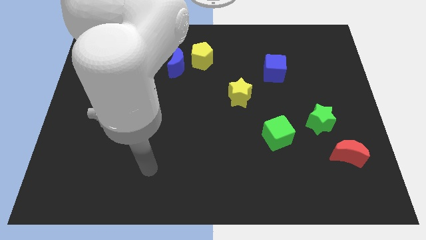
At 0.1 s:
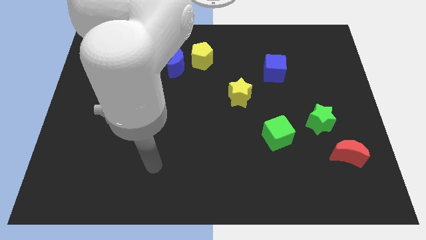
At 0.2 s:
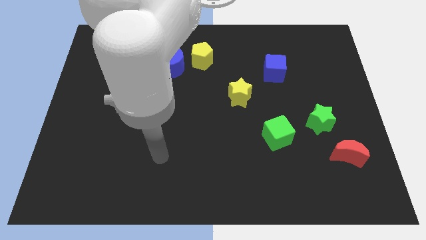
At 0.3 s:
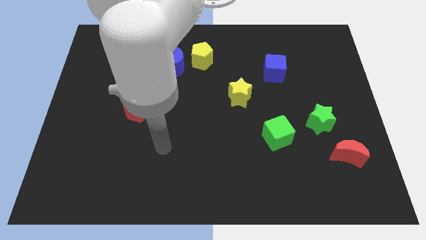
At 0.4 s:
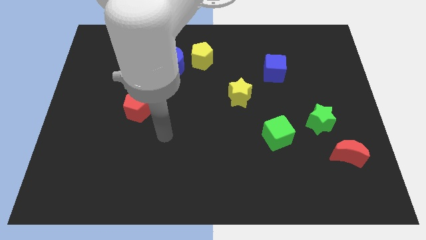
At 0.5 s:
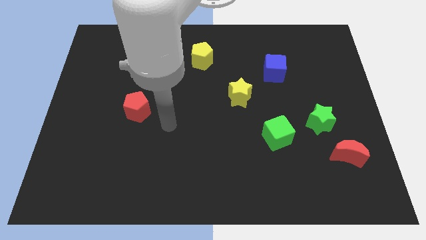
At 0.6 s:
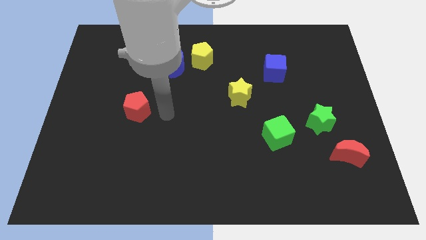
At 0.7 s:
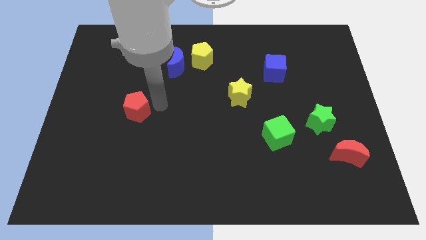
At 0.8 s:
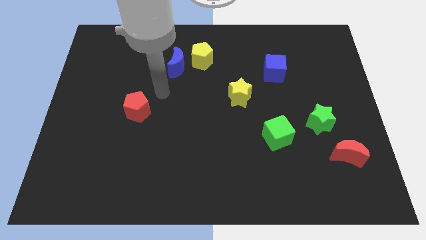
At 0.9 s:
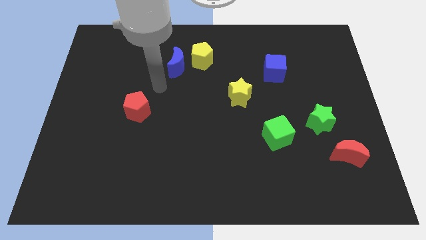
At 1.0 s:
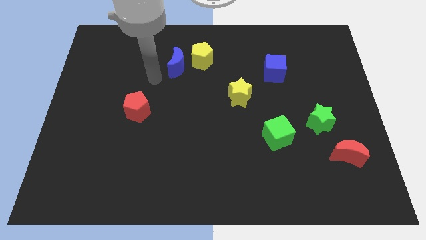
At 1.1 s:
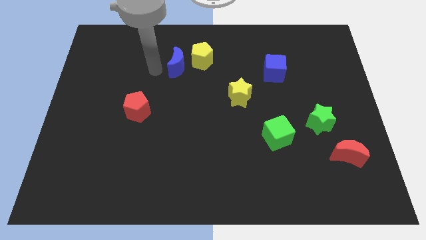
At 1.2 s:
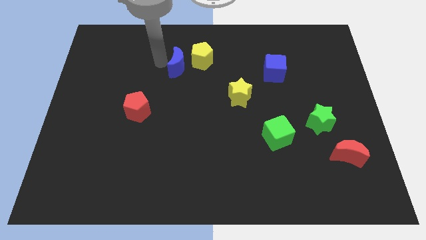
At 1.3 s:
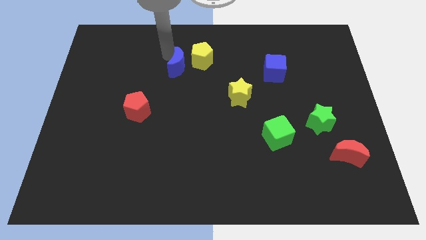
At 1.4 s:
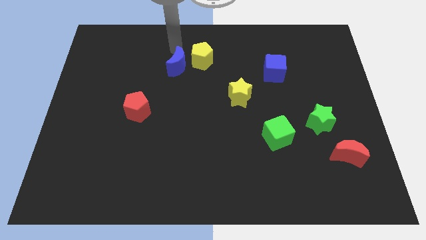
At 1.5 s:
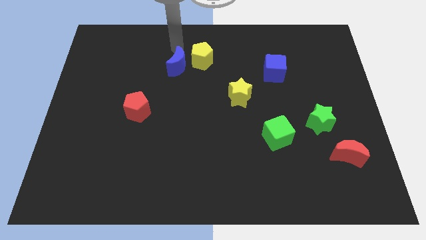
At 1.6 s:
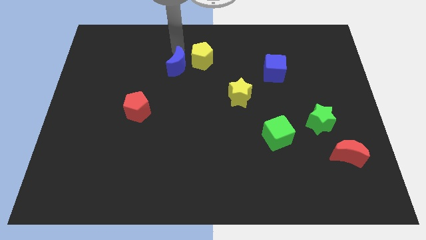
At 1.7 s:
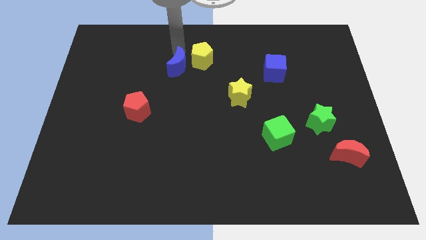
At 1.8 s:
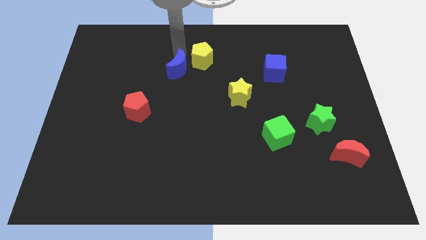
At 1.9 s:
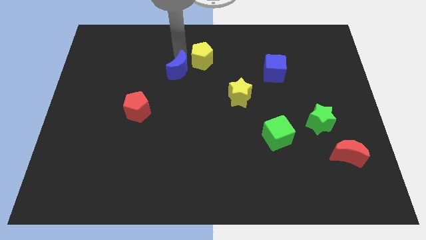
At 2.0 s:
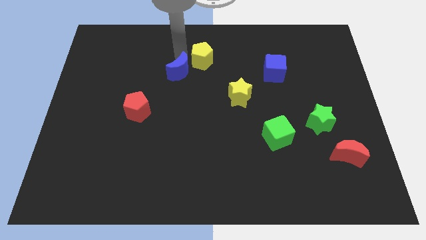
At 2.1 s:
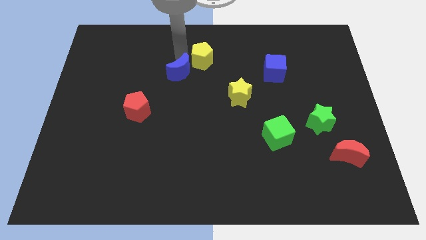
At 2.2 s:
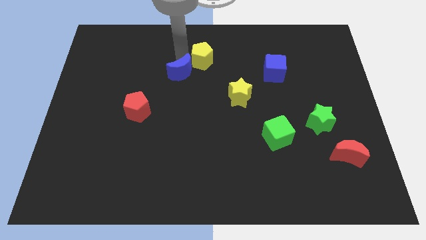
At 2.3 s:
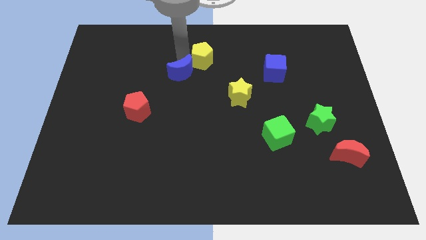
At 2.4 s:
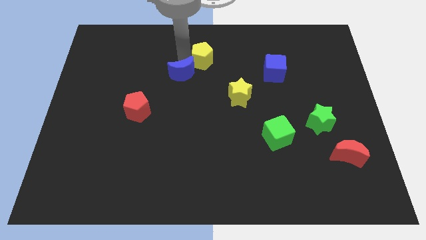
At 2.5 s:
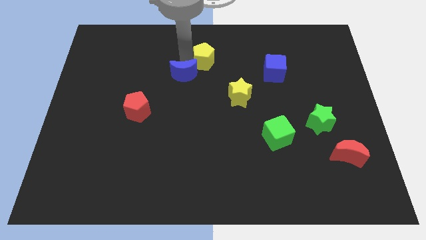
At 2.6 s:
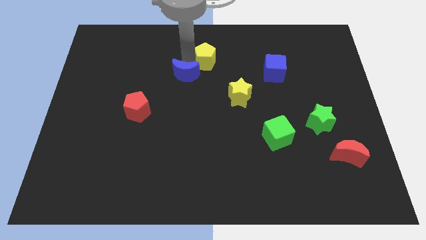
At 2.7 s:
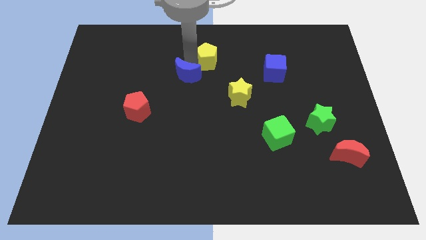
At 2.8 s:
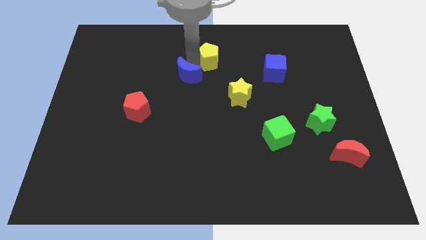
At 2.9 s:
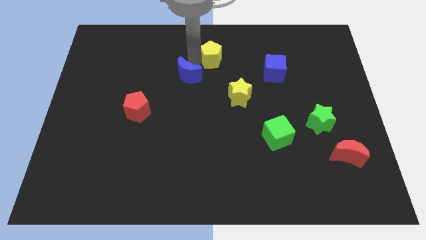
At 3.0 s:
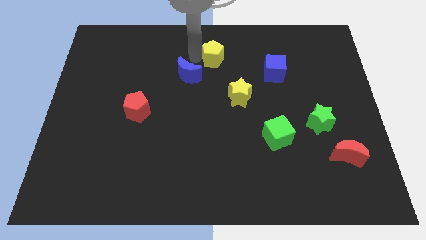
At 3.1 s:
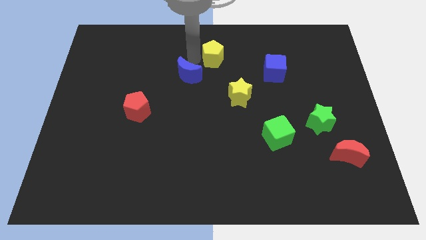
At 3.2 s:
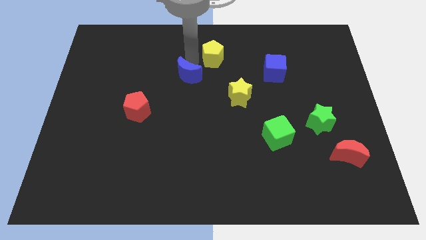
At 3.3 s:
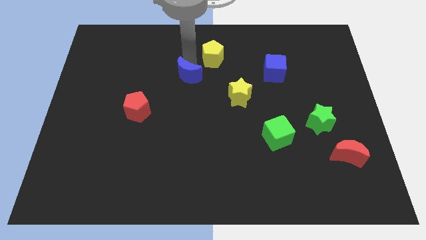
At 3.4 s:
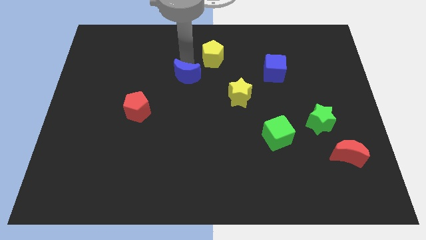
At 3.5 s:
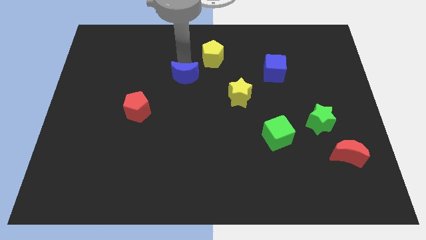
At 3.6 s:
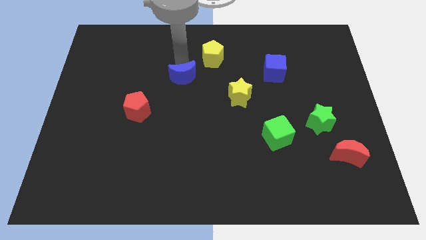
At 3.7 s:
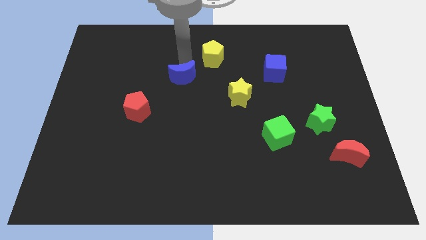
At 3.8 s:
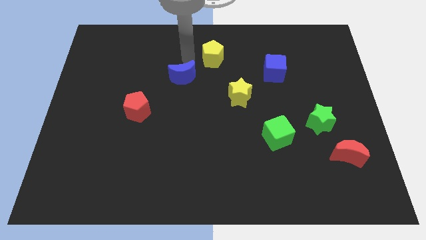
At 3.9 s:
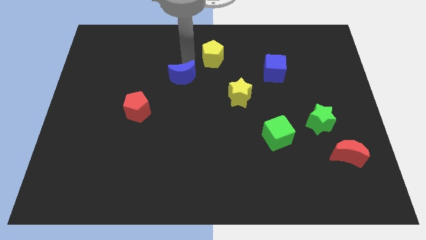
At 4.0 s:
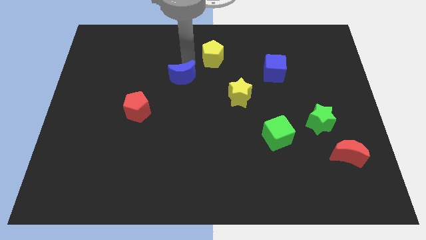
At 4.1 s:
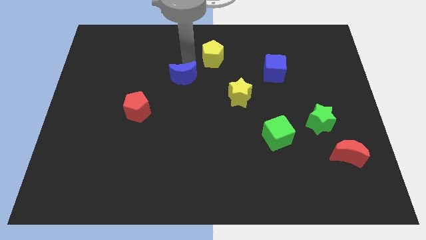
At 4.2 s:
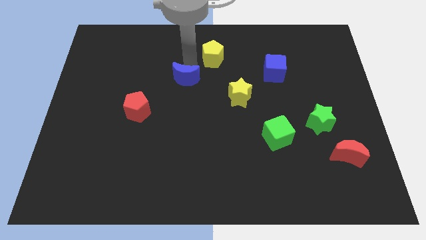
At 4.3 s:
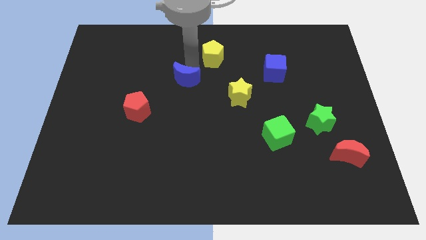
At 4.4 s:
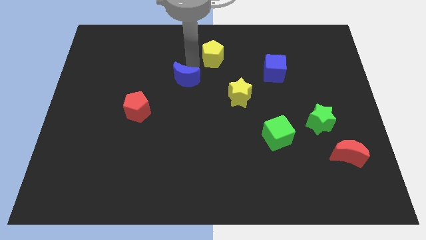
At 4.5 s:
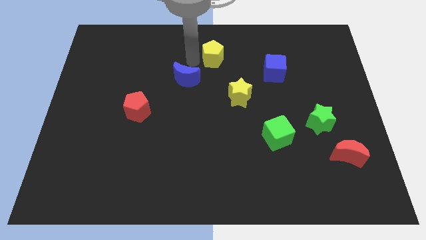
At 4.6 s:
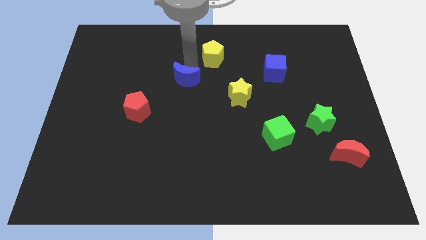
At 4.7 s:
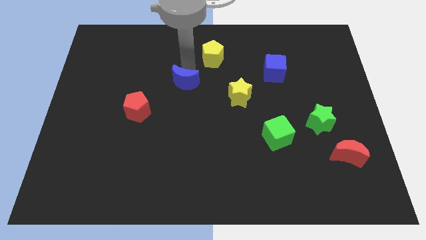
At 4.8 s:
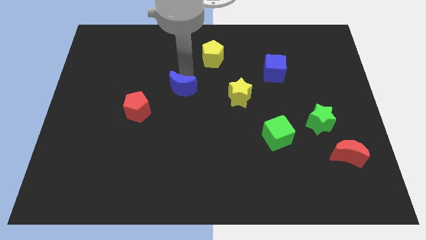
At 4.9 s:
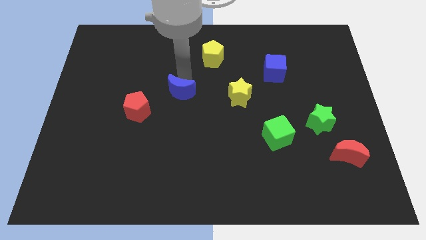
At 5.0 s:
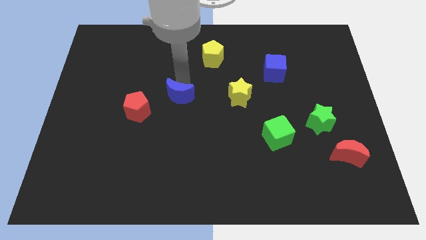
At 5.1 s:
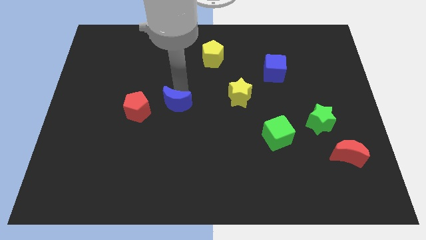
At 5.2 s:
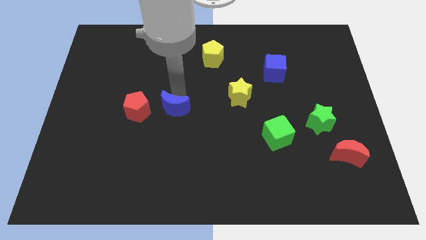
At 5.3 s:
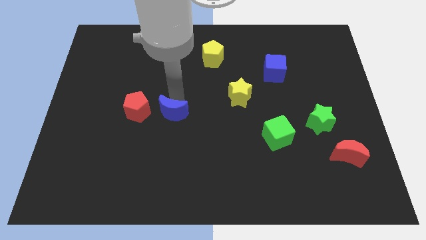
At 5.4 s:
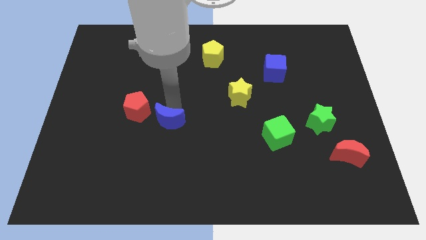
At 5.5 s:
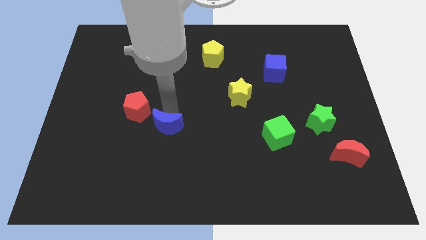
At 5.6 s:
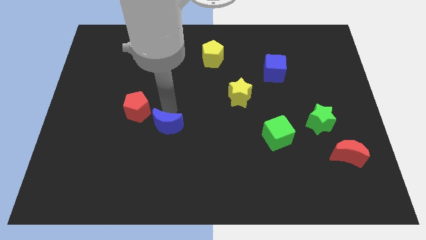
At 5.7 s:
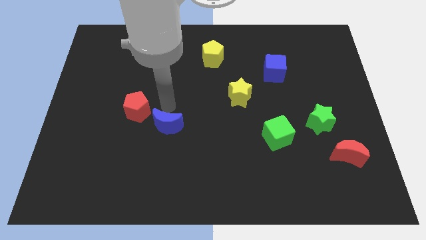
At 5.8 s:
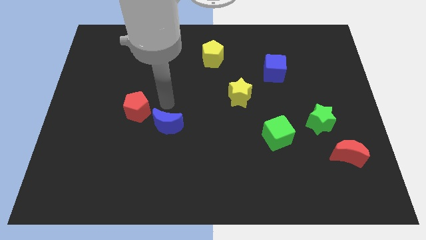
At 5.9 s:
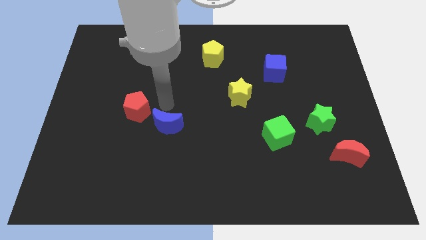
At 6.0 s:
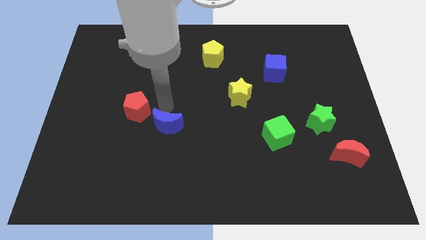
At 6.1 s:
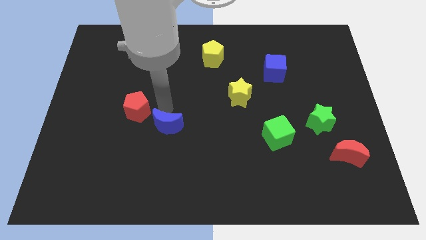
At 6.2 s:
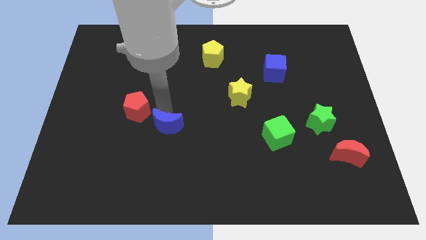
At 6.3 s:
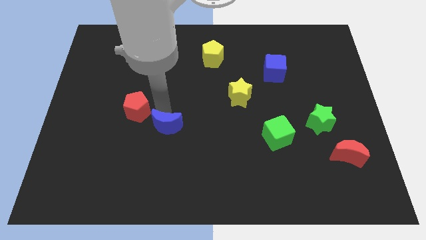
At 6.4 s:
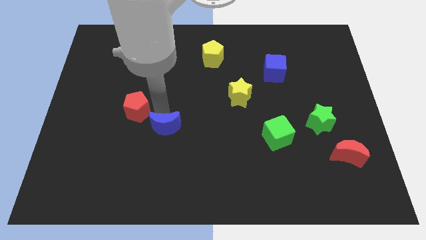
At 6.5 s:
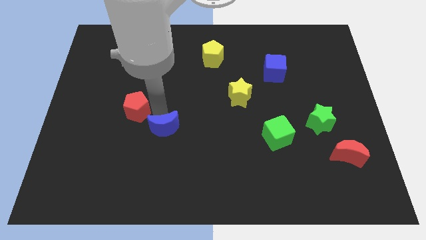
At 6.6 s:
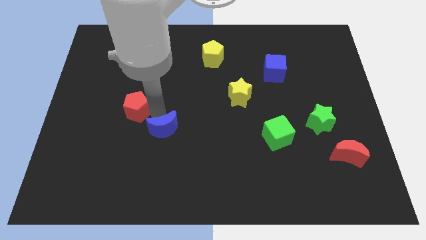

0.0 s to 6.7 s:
move the blue moon down

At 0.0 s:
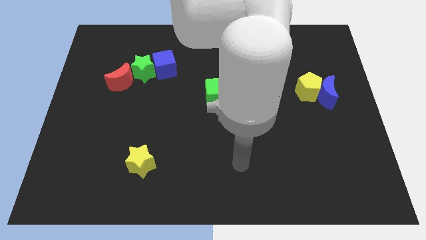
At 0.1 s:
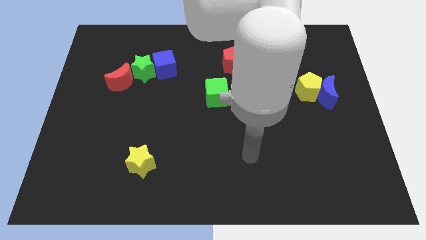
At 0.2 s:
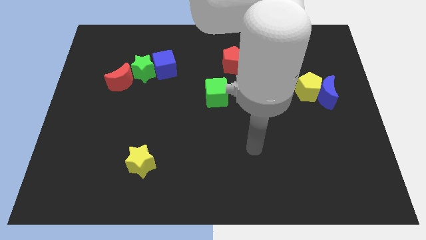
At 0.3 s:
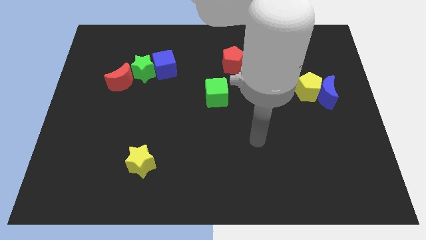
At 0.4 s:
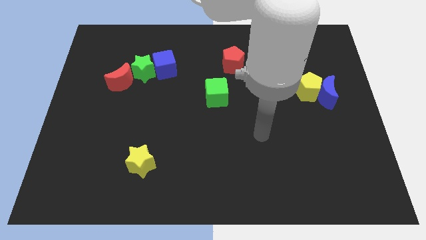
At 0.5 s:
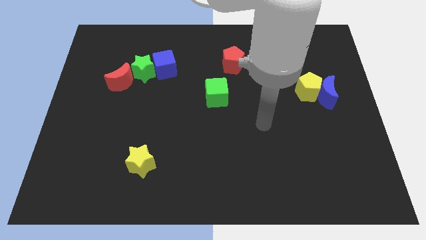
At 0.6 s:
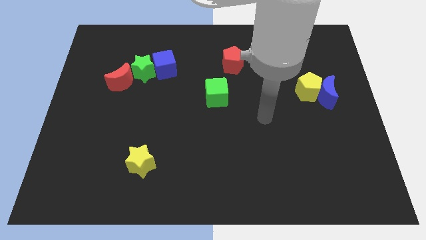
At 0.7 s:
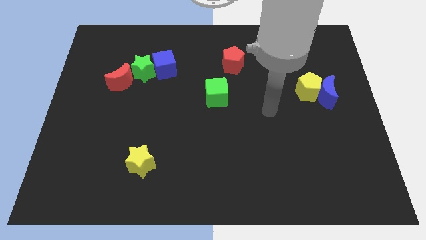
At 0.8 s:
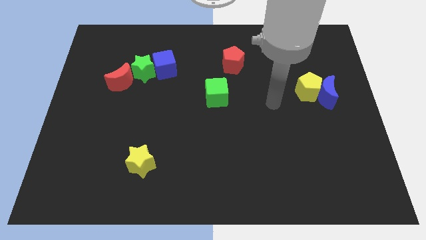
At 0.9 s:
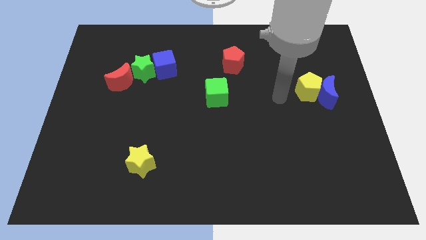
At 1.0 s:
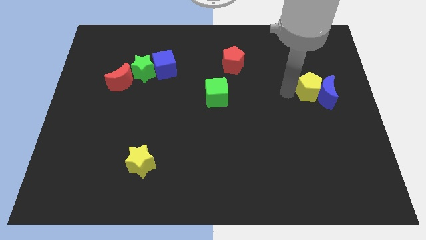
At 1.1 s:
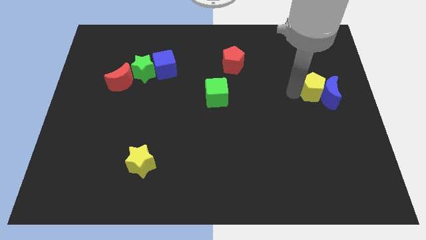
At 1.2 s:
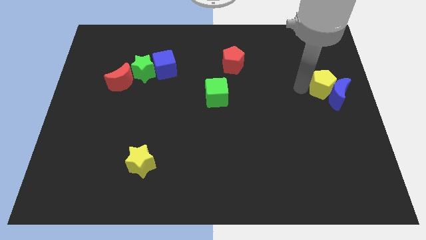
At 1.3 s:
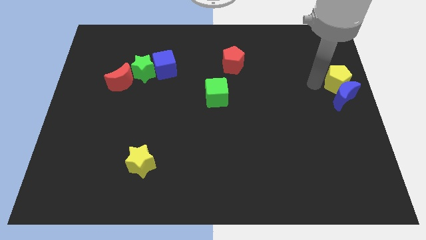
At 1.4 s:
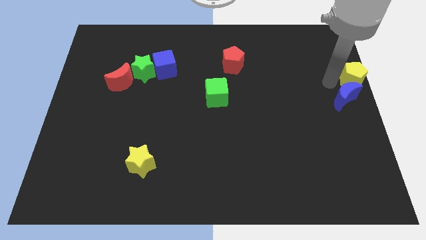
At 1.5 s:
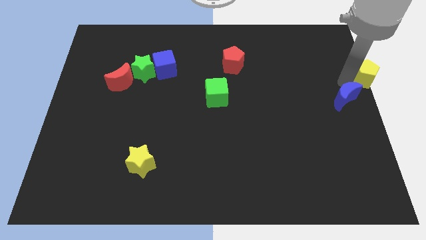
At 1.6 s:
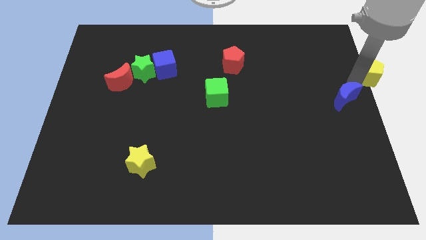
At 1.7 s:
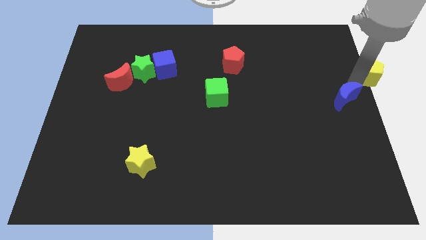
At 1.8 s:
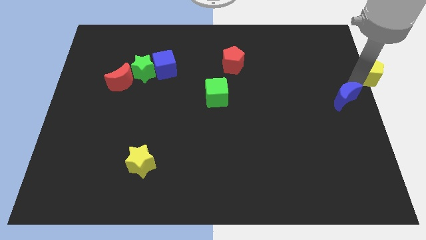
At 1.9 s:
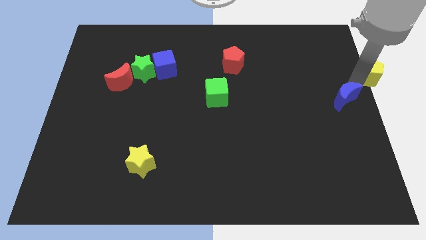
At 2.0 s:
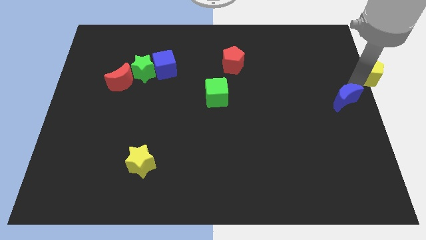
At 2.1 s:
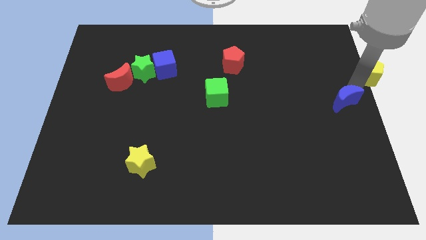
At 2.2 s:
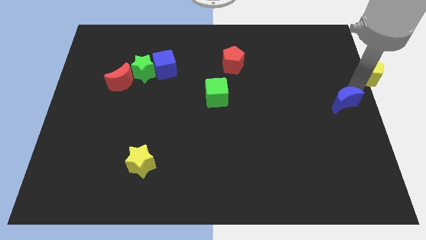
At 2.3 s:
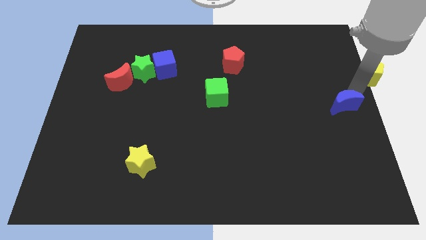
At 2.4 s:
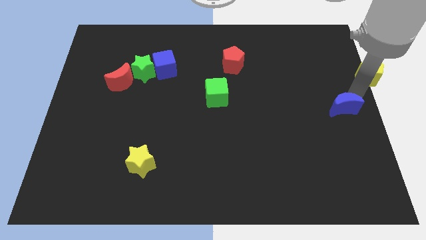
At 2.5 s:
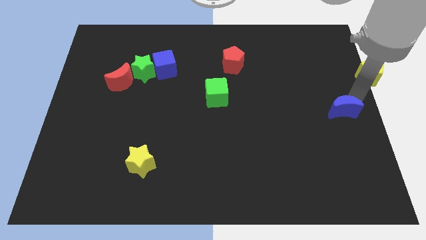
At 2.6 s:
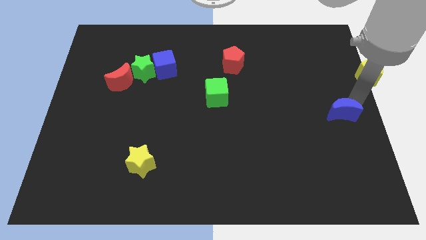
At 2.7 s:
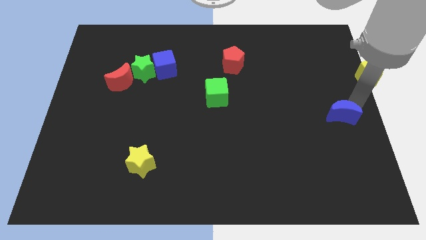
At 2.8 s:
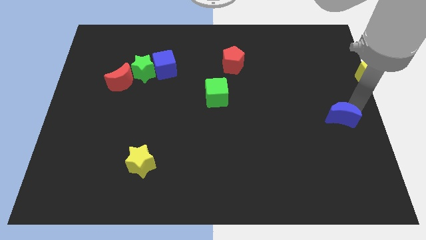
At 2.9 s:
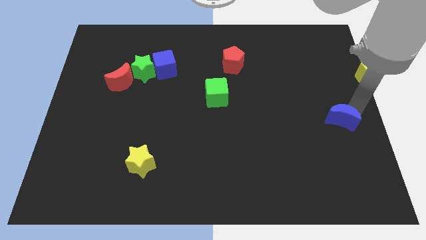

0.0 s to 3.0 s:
slightly push the blue moon downwards
